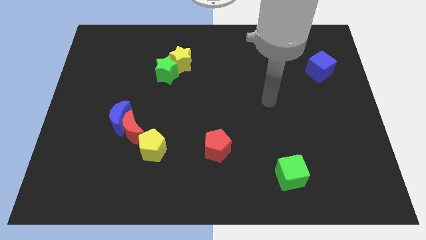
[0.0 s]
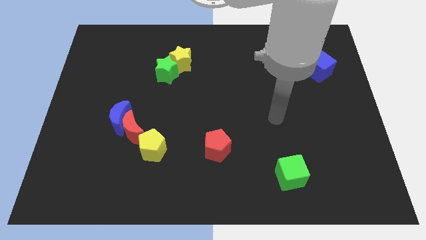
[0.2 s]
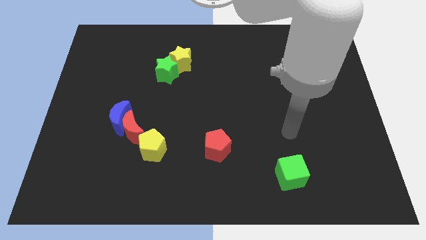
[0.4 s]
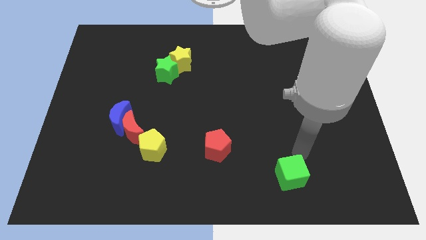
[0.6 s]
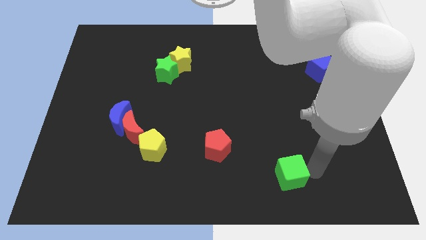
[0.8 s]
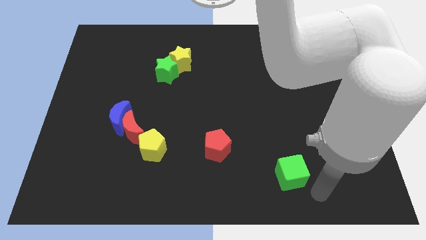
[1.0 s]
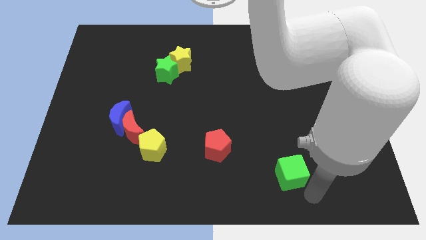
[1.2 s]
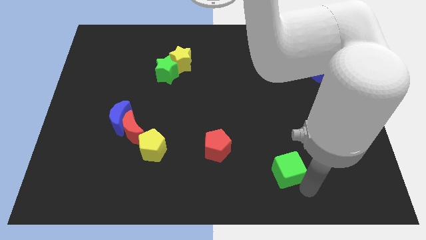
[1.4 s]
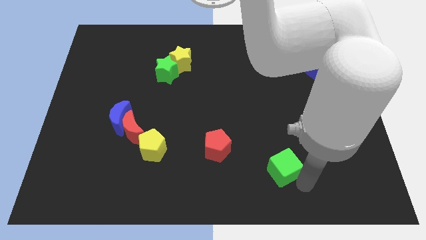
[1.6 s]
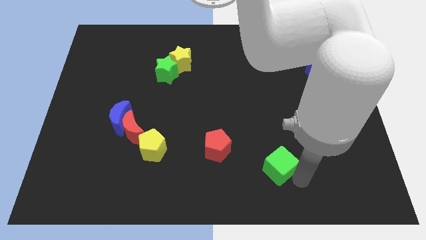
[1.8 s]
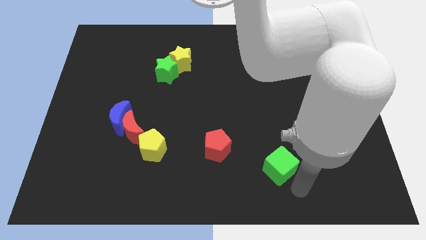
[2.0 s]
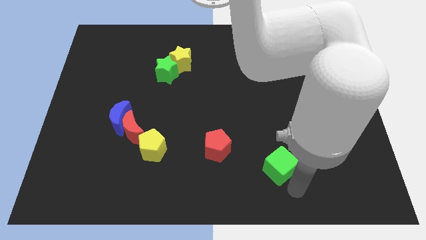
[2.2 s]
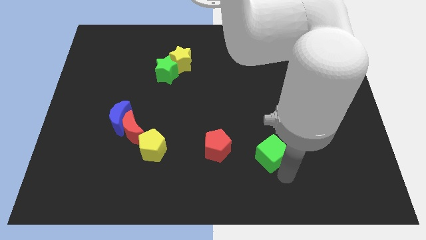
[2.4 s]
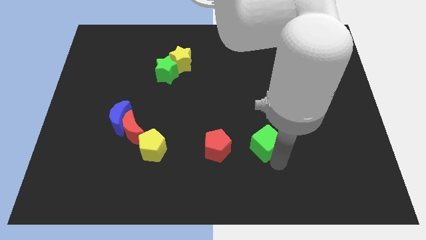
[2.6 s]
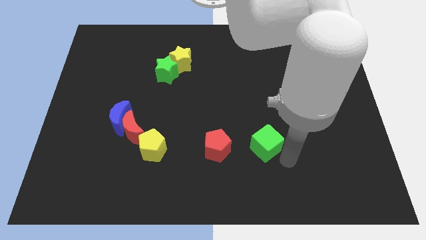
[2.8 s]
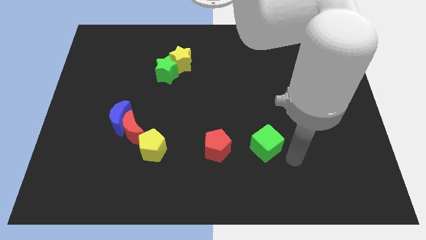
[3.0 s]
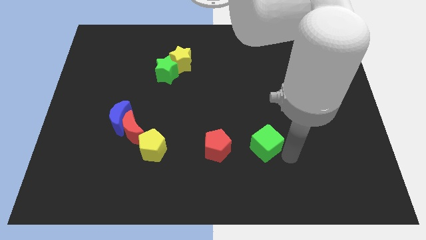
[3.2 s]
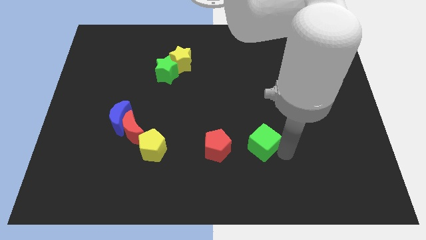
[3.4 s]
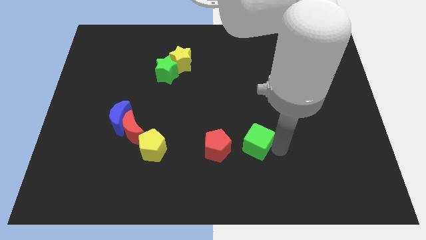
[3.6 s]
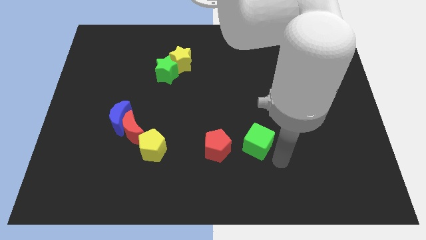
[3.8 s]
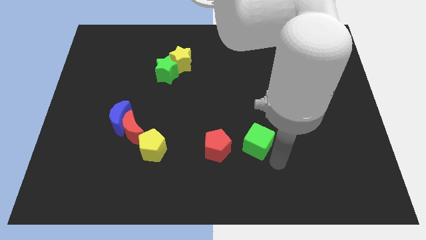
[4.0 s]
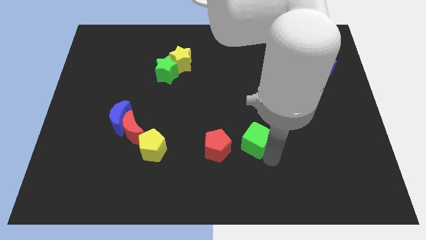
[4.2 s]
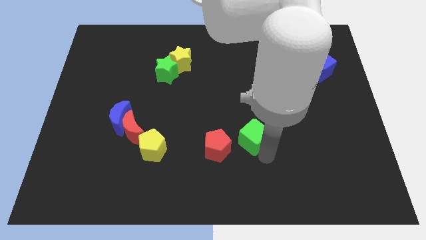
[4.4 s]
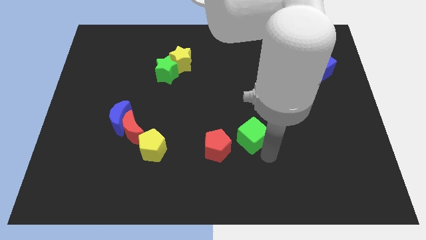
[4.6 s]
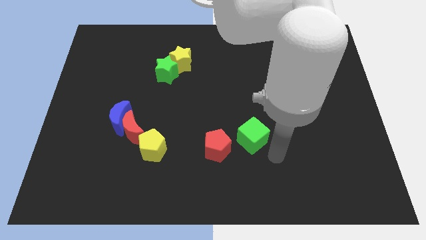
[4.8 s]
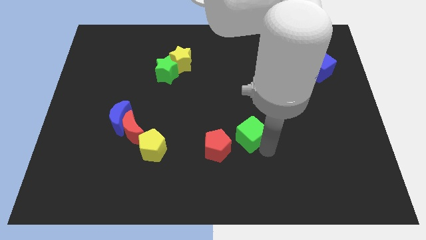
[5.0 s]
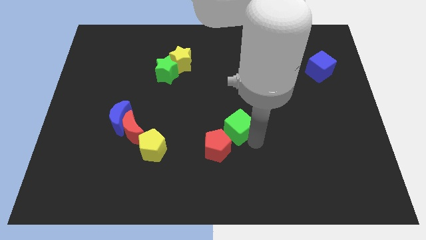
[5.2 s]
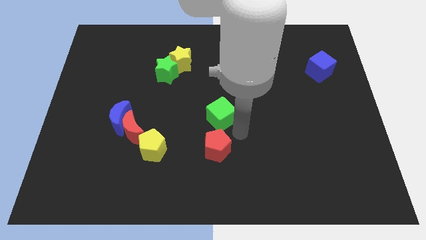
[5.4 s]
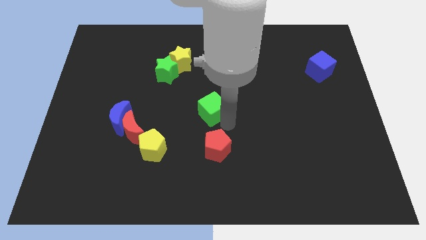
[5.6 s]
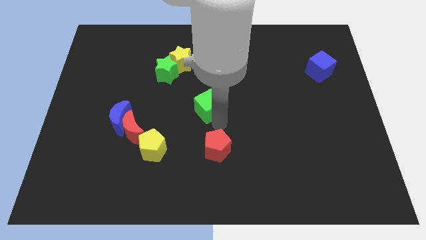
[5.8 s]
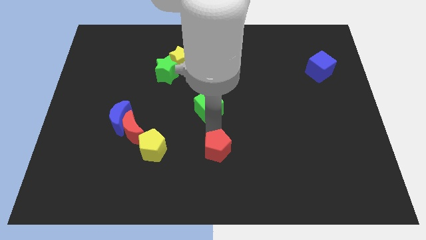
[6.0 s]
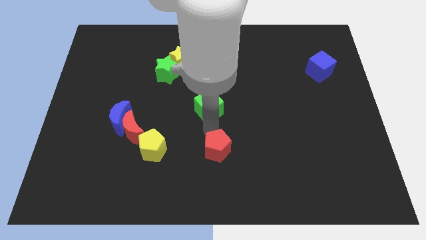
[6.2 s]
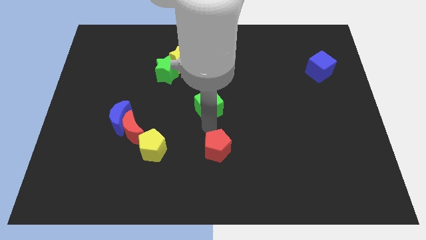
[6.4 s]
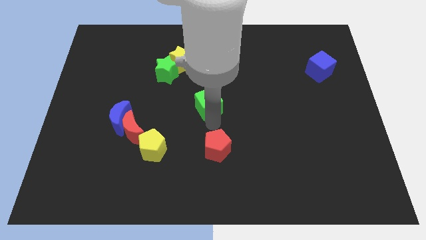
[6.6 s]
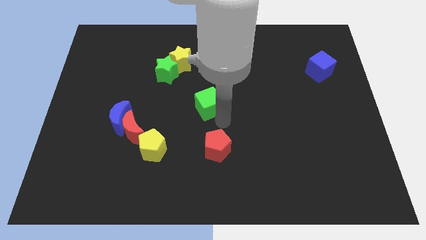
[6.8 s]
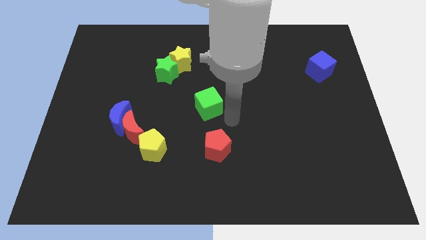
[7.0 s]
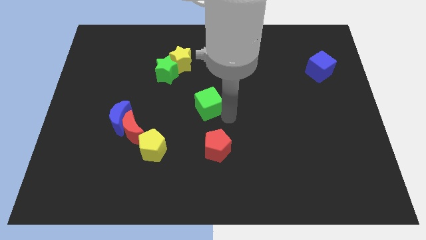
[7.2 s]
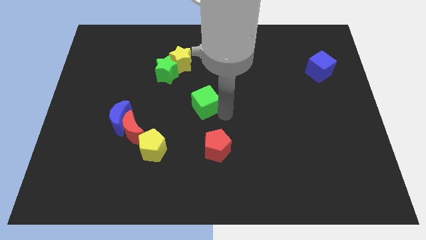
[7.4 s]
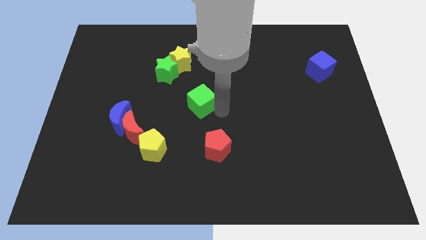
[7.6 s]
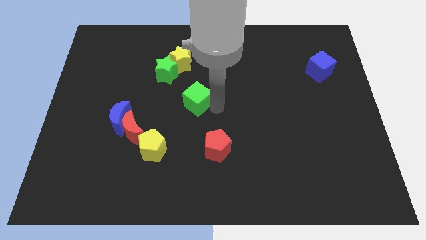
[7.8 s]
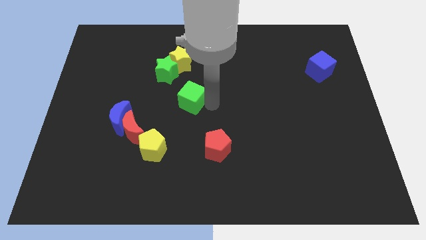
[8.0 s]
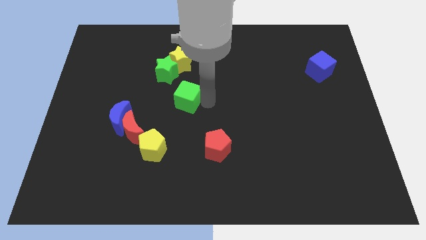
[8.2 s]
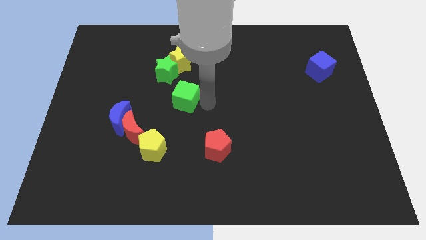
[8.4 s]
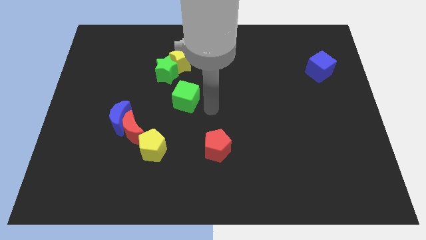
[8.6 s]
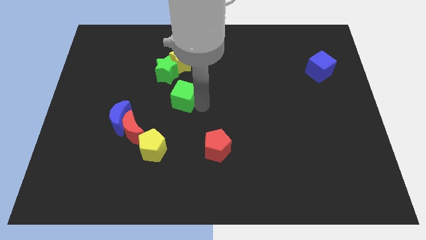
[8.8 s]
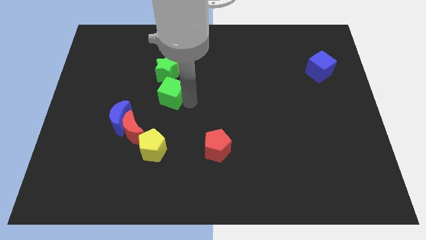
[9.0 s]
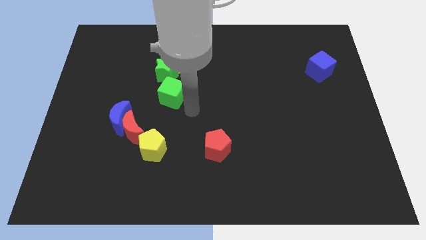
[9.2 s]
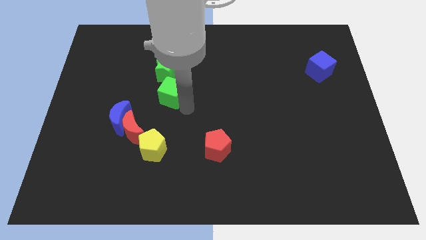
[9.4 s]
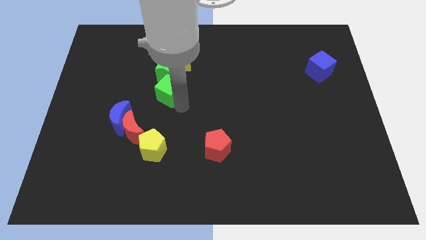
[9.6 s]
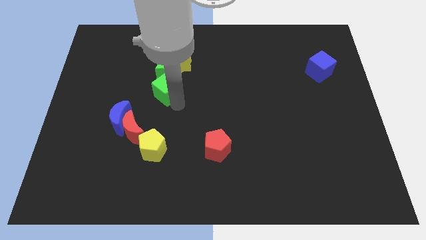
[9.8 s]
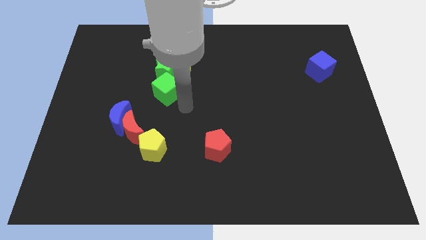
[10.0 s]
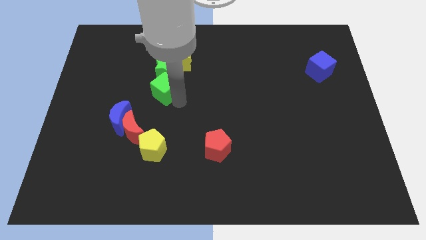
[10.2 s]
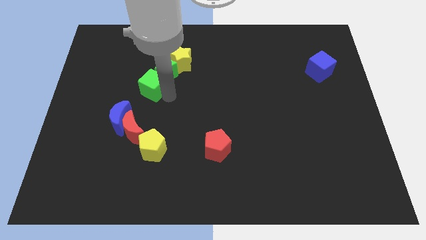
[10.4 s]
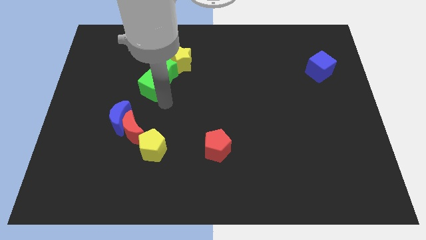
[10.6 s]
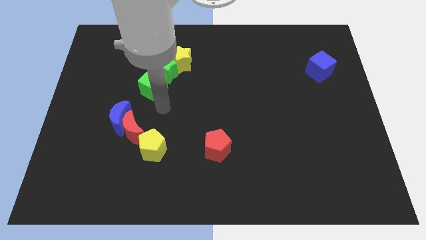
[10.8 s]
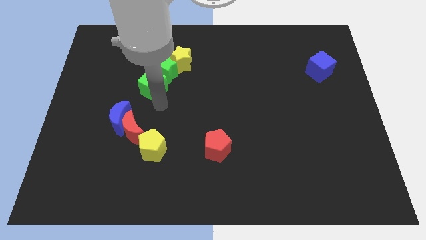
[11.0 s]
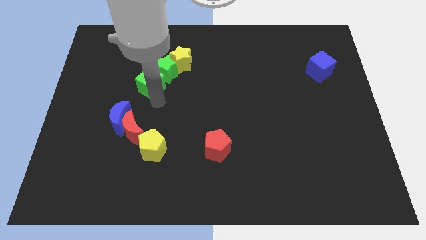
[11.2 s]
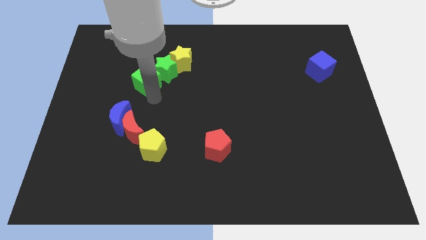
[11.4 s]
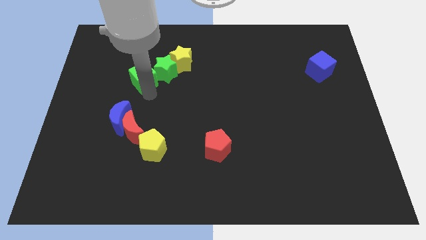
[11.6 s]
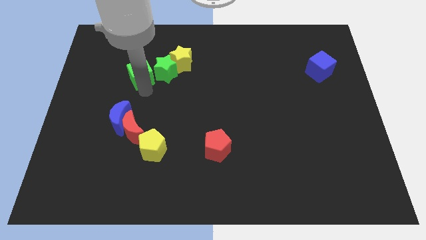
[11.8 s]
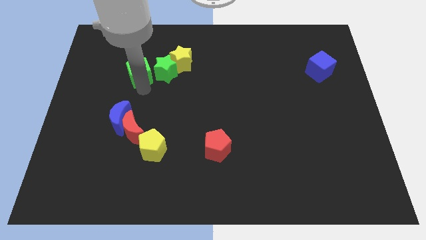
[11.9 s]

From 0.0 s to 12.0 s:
slide the green cube left of the yellow star

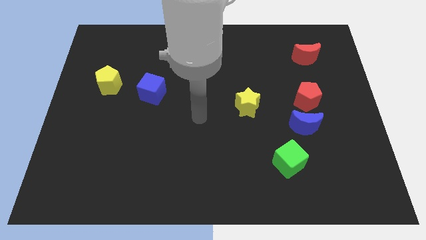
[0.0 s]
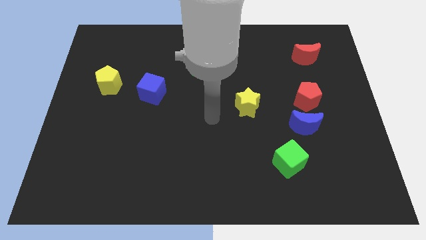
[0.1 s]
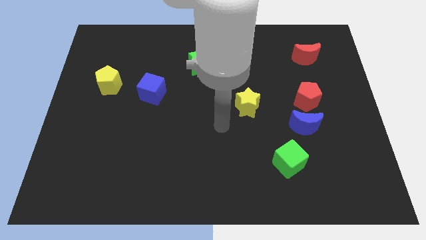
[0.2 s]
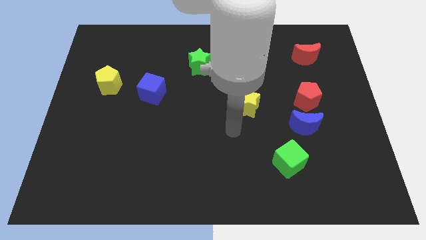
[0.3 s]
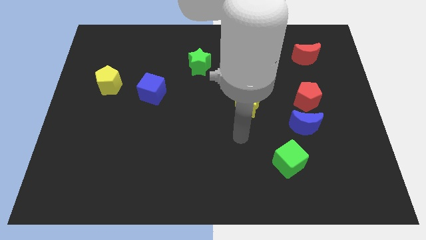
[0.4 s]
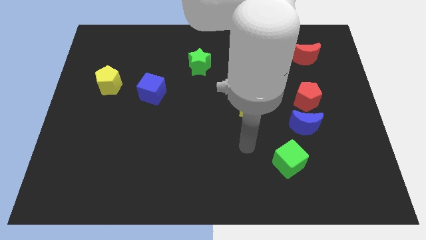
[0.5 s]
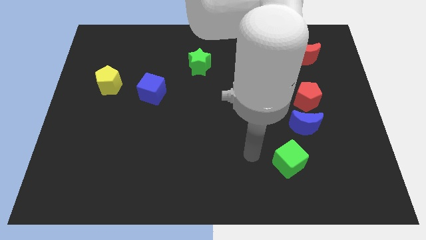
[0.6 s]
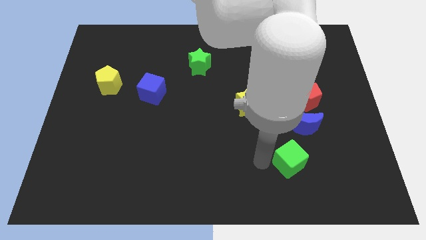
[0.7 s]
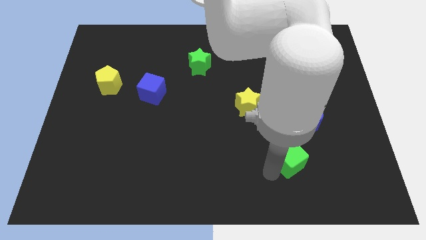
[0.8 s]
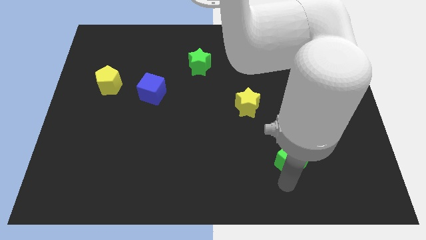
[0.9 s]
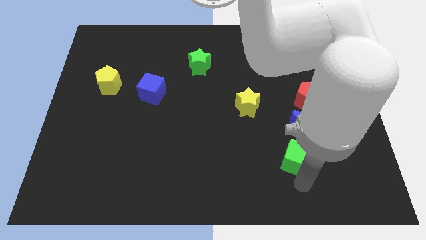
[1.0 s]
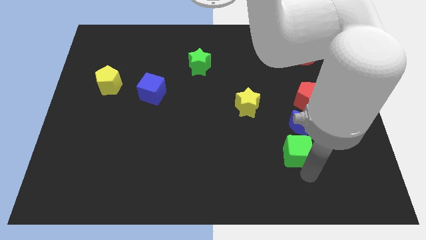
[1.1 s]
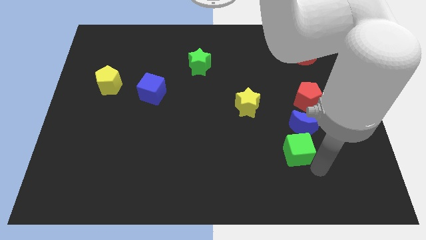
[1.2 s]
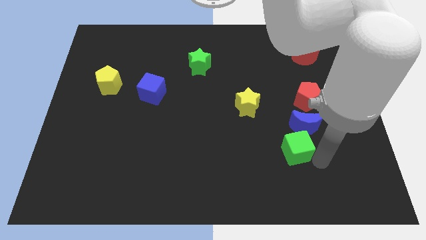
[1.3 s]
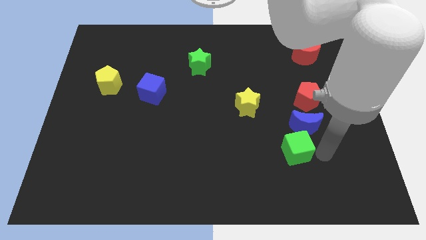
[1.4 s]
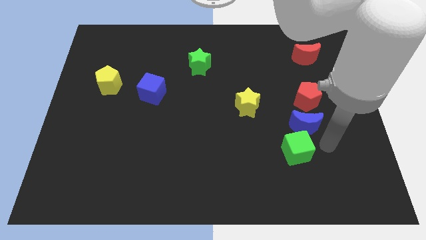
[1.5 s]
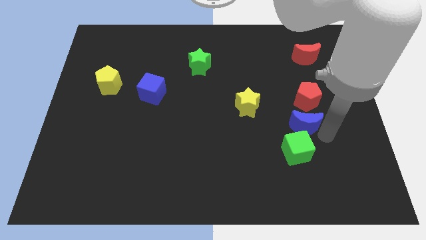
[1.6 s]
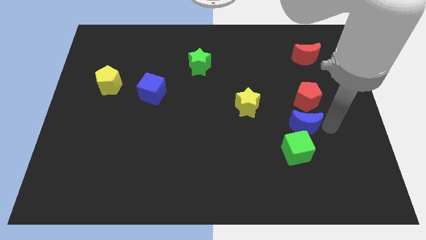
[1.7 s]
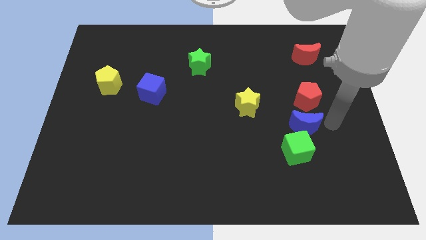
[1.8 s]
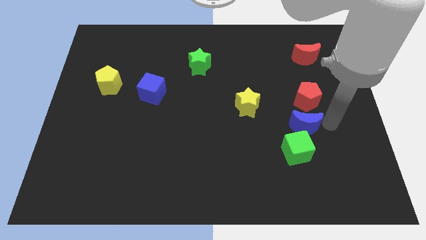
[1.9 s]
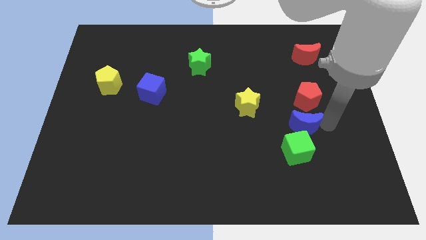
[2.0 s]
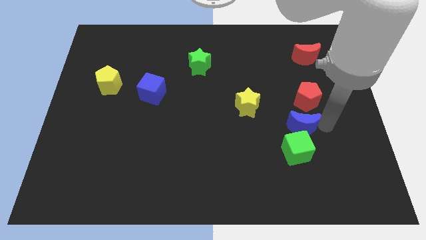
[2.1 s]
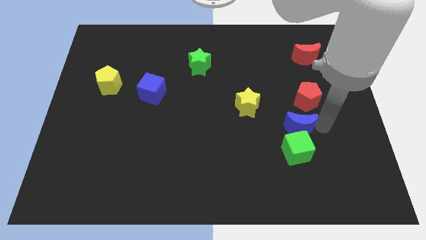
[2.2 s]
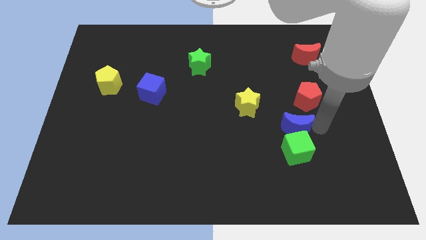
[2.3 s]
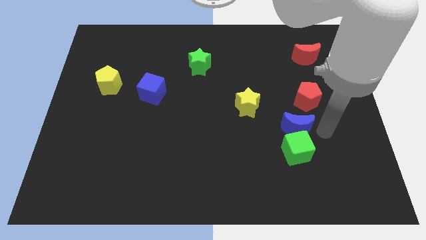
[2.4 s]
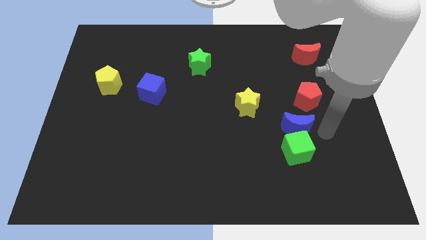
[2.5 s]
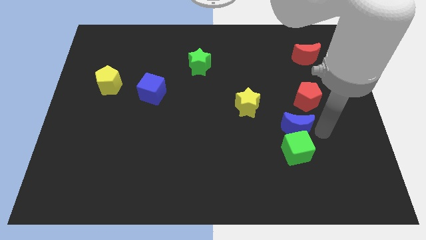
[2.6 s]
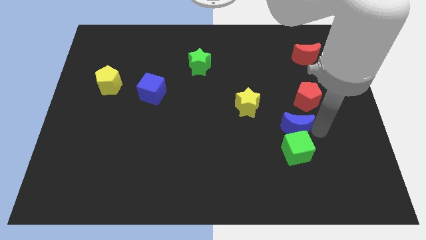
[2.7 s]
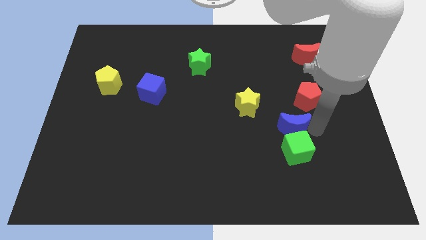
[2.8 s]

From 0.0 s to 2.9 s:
move the blue moon to the bottom right side of the yellow star
